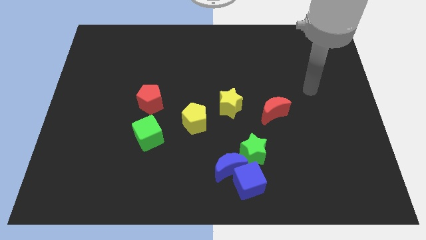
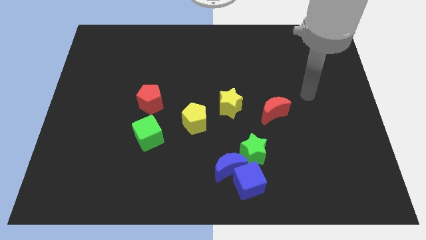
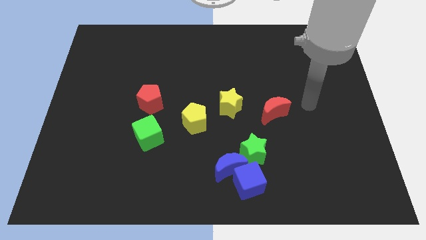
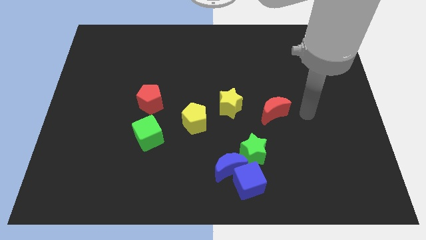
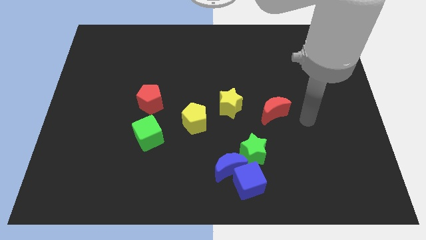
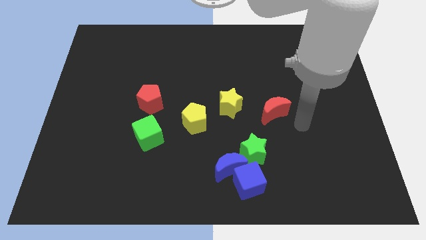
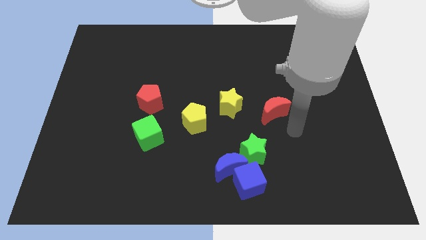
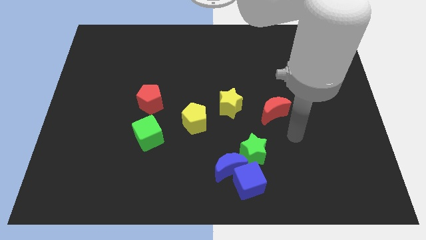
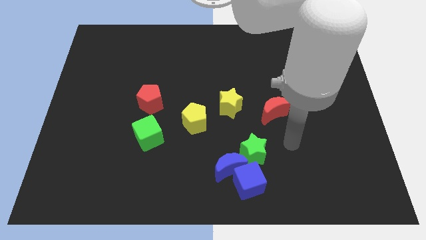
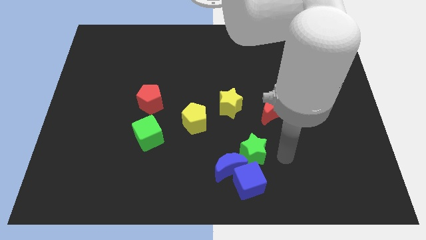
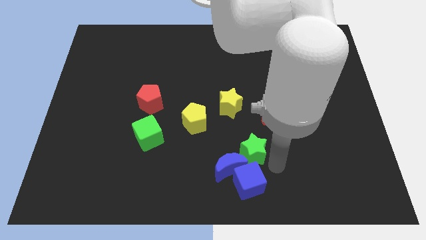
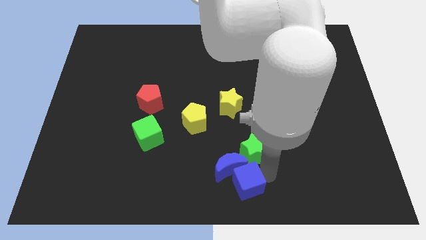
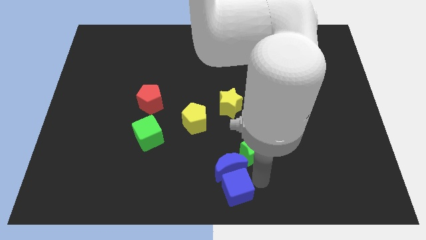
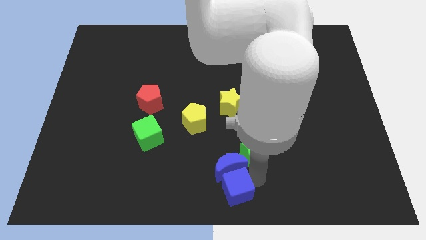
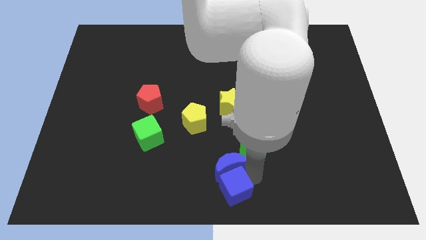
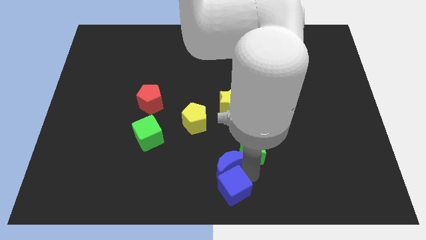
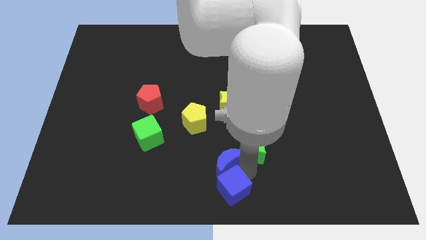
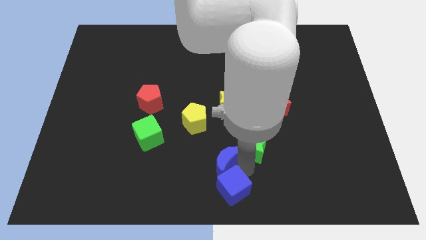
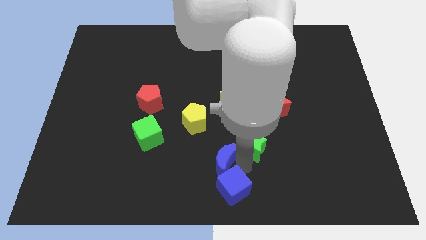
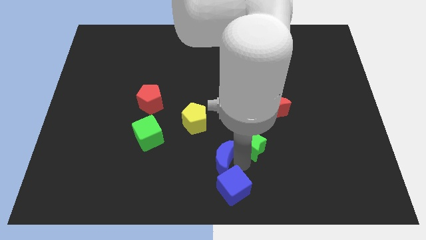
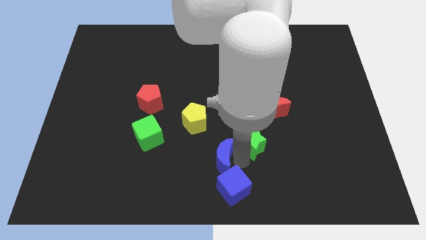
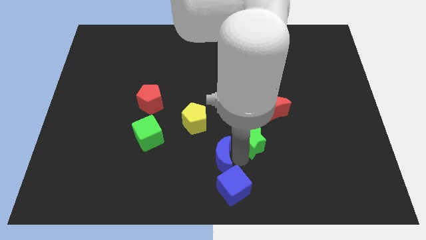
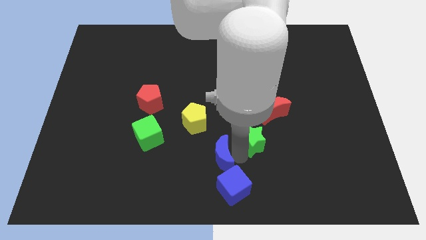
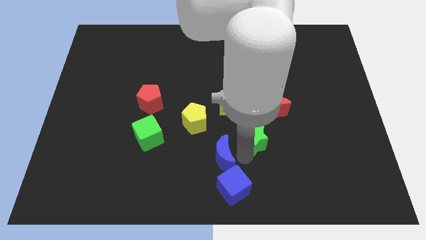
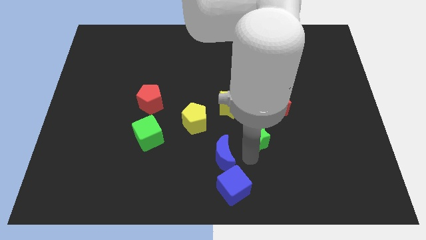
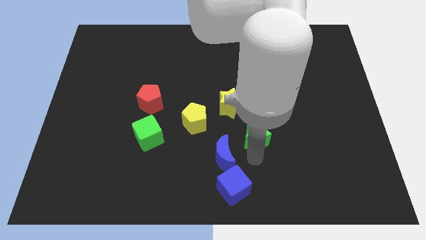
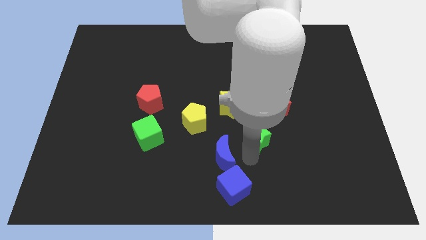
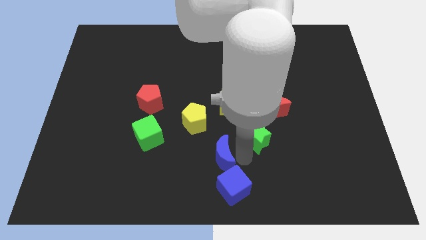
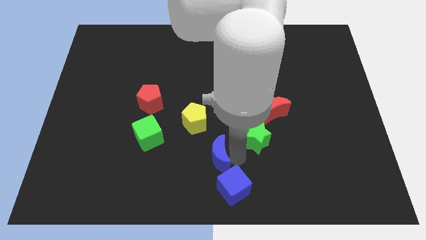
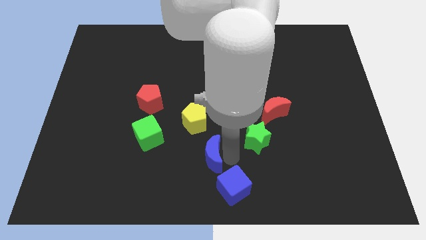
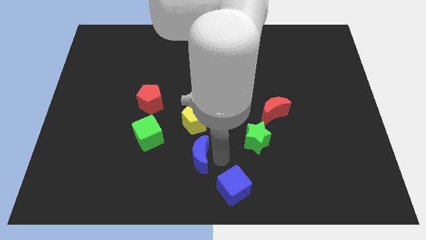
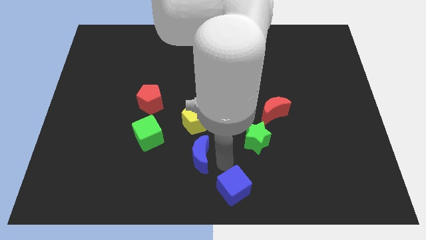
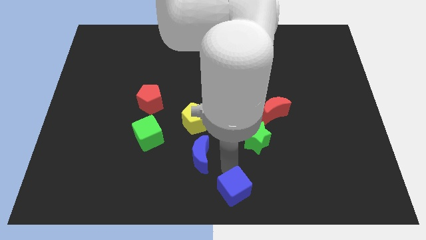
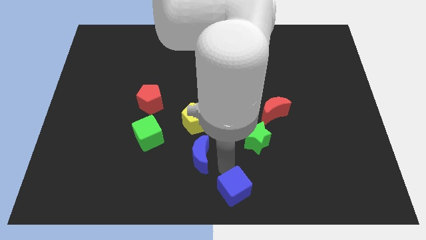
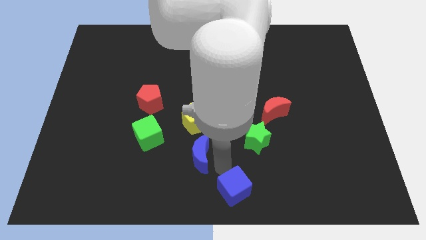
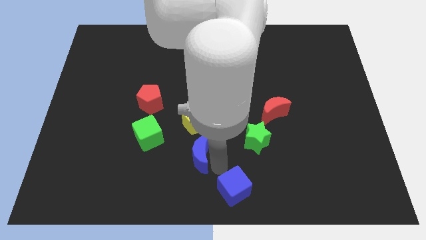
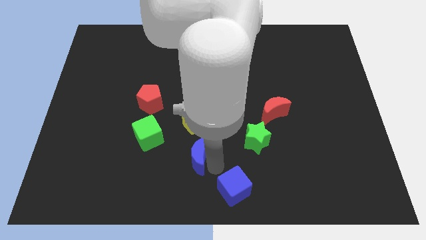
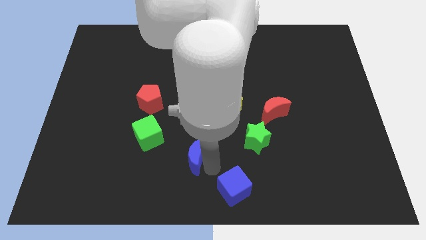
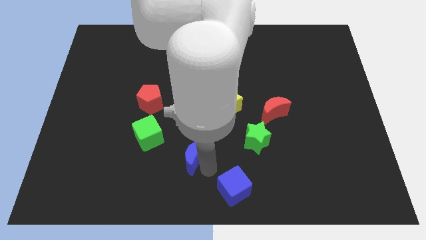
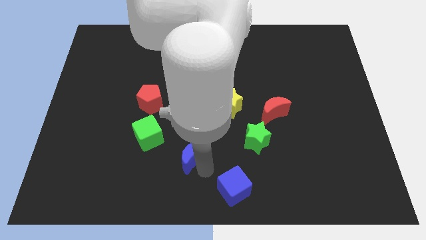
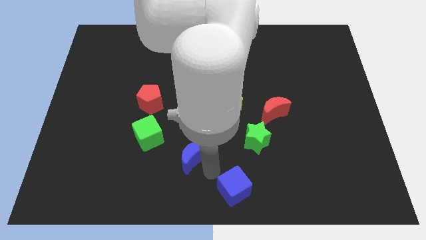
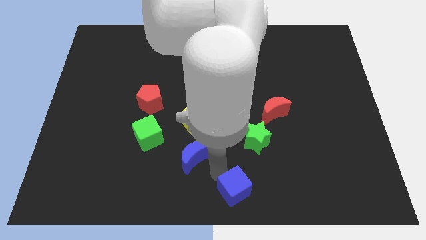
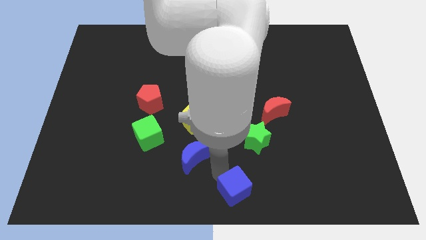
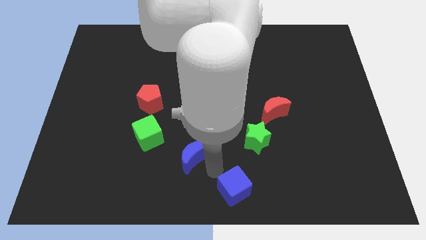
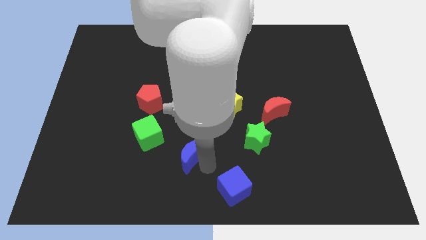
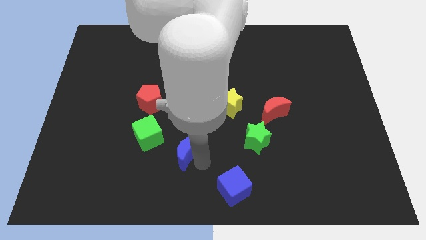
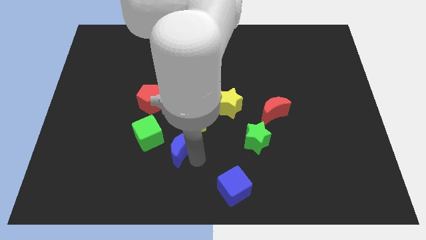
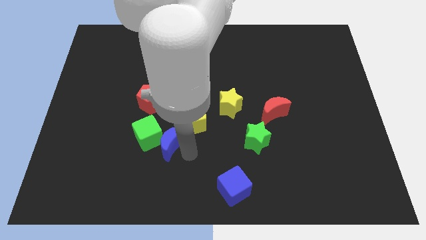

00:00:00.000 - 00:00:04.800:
move the blue moon next to the green cube

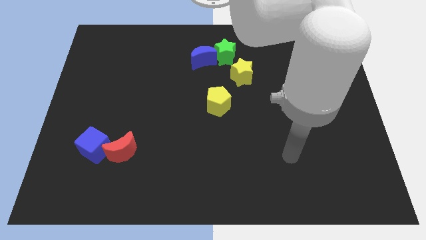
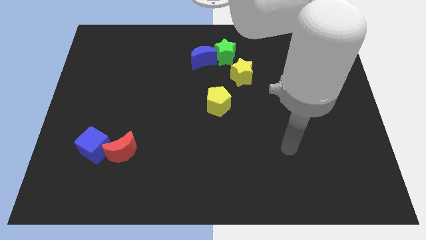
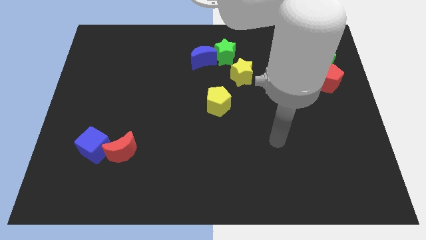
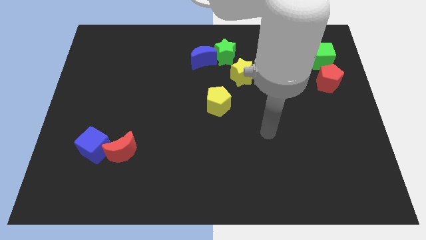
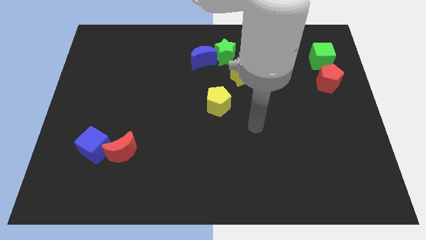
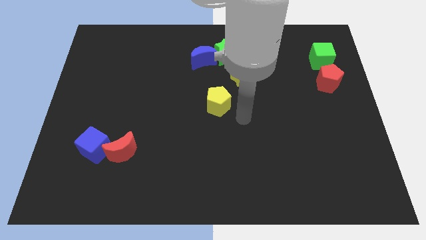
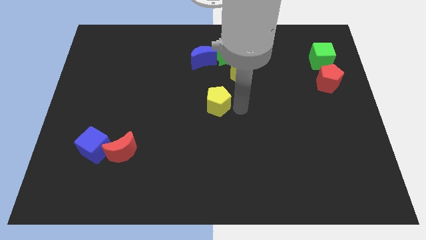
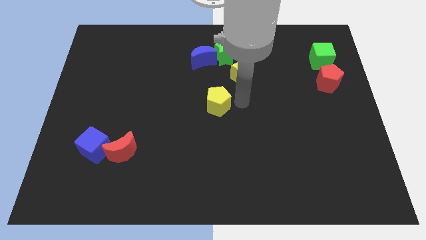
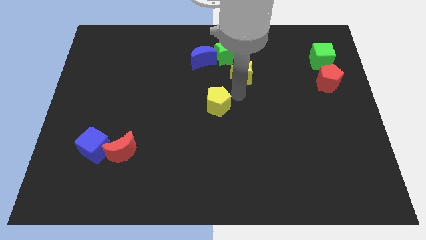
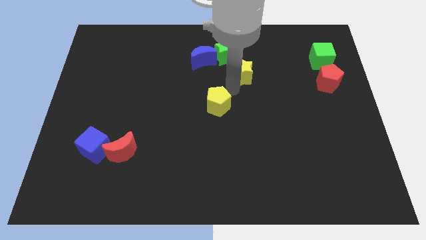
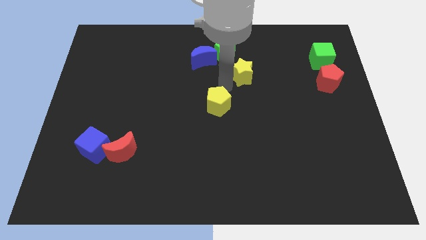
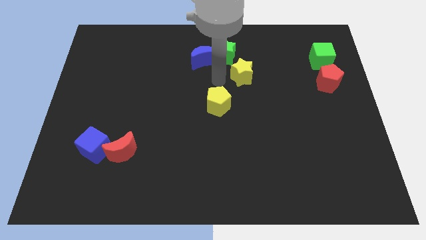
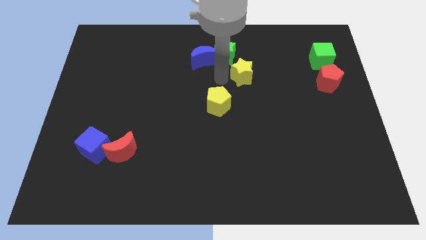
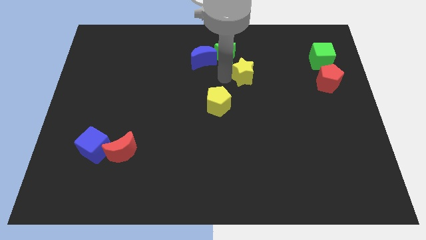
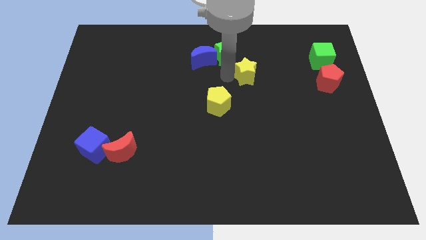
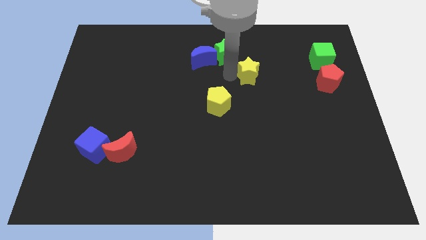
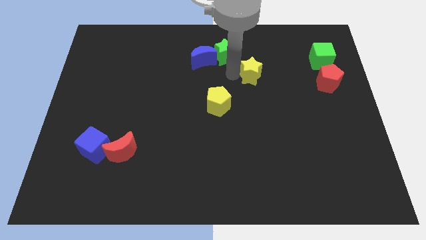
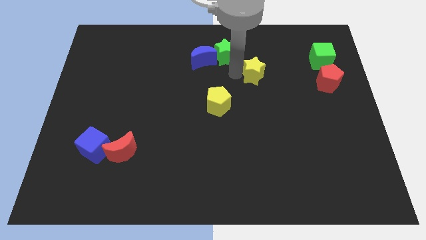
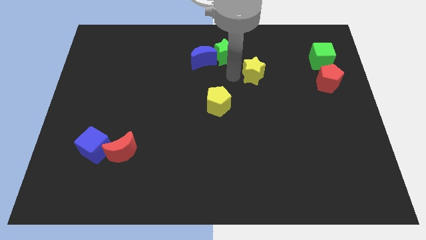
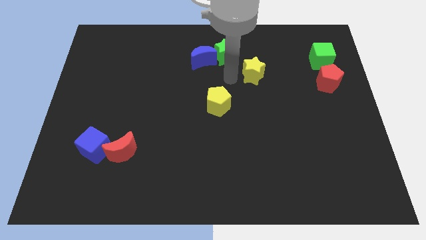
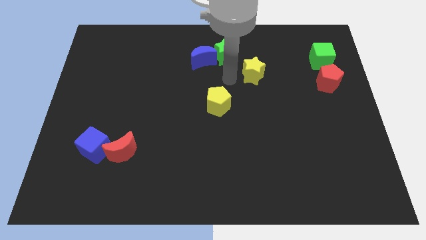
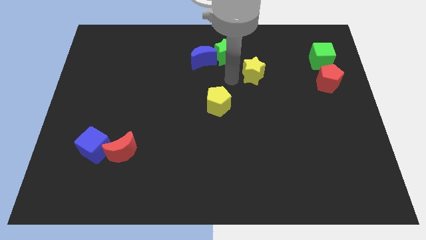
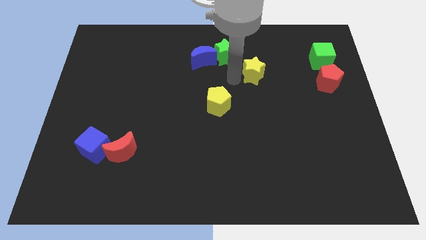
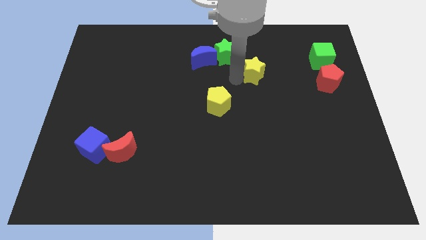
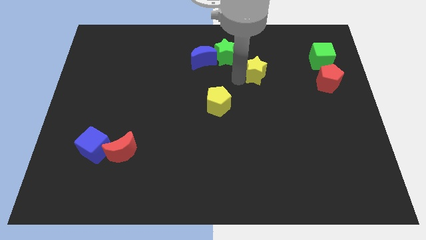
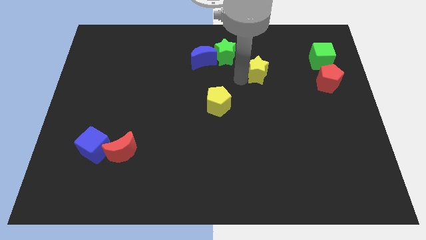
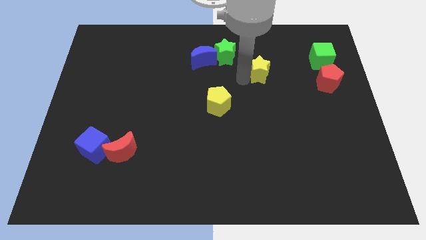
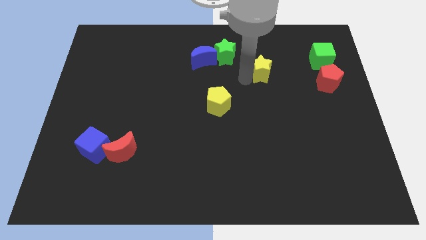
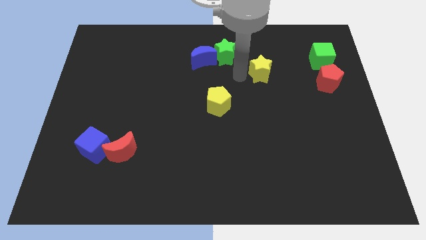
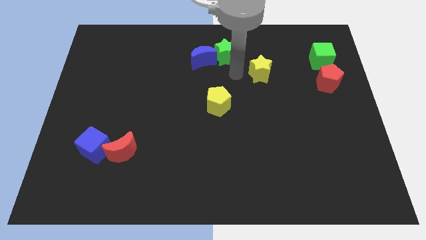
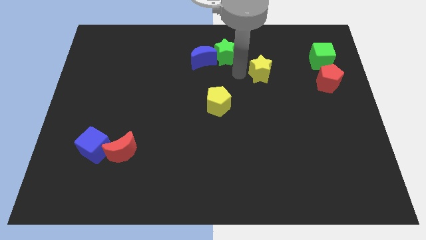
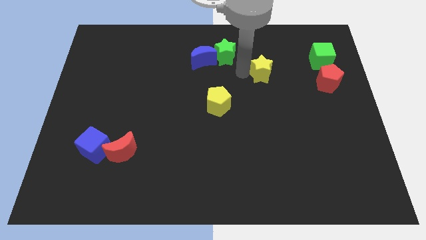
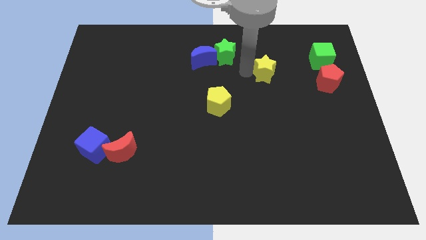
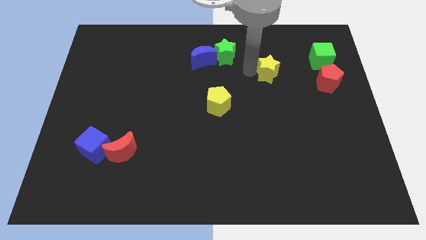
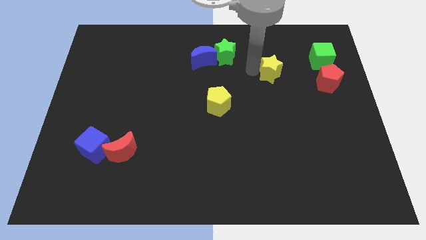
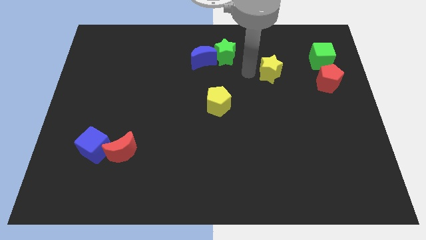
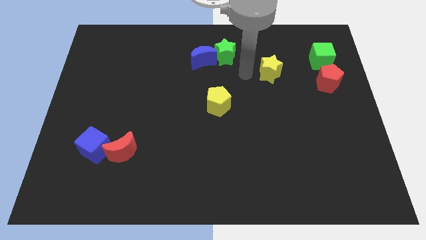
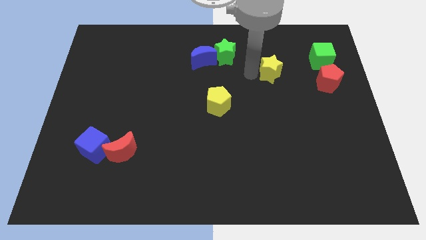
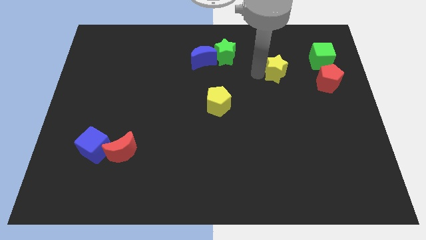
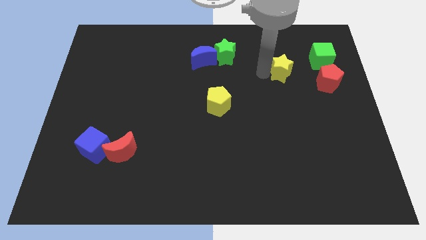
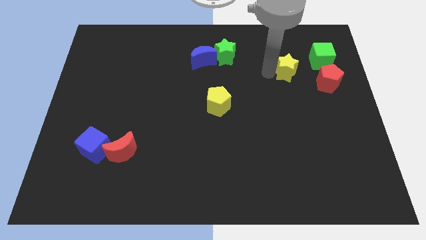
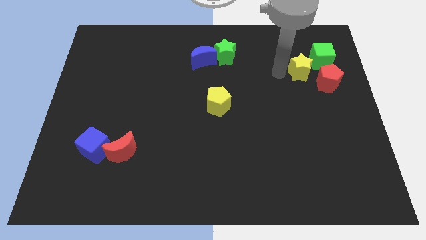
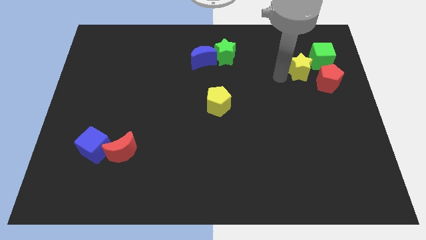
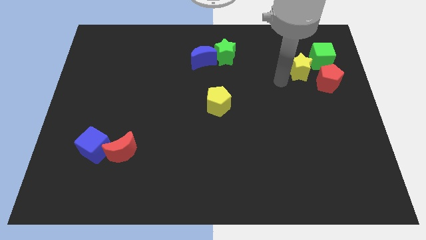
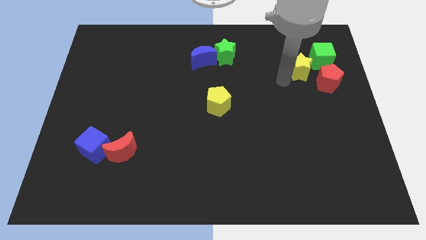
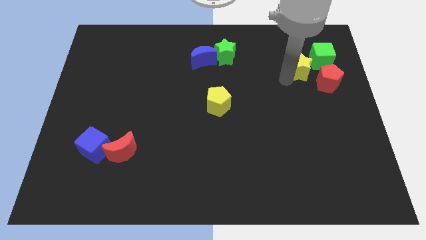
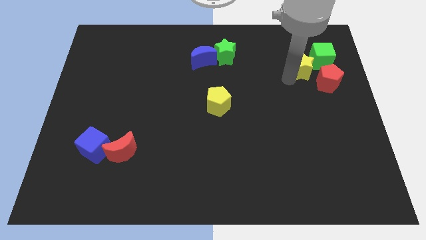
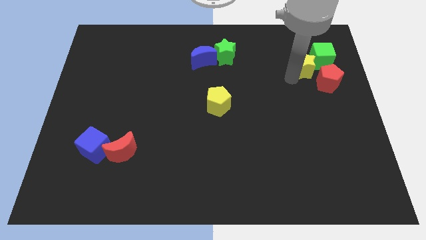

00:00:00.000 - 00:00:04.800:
move the yellow star to the green cube
